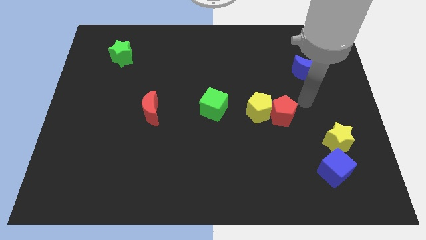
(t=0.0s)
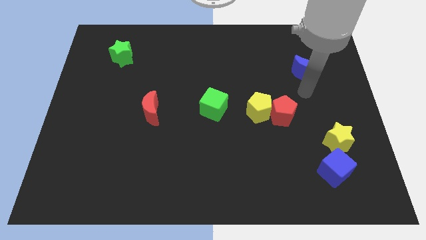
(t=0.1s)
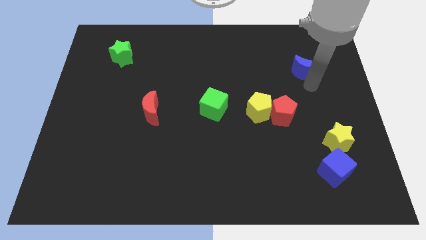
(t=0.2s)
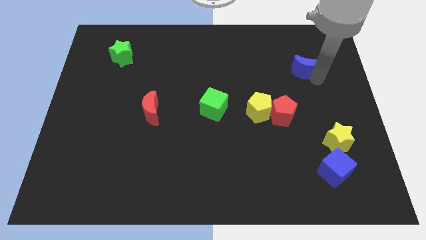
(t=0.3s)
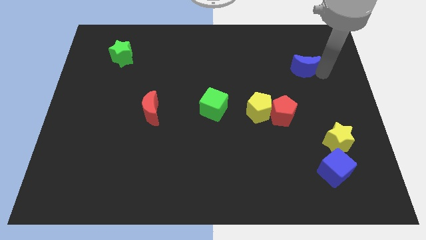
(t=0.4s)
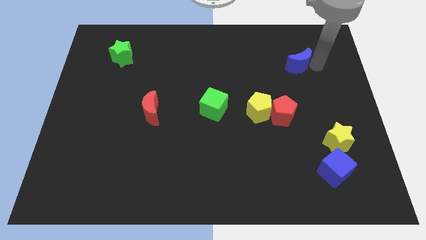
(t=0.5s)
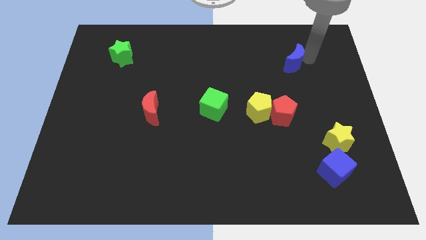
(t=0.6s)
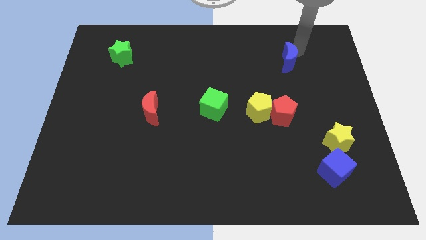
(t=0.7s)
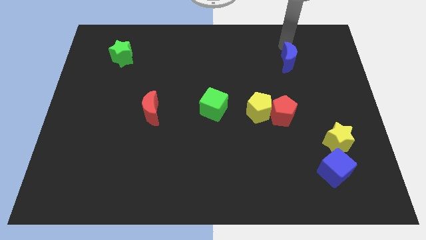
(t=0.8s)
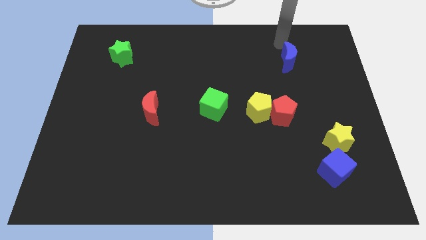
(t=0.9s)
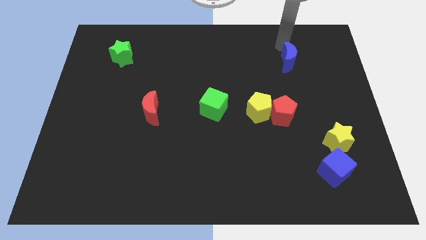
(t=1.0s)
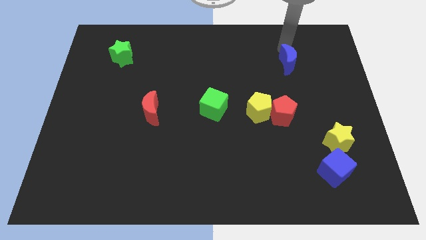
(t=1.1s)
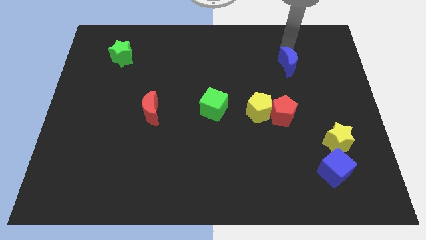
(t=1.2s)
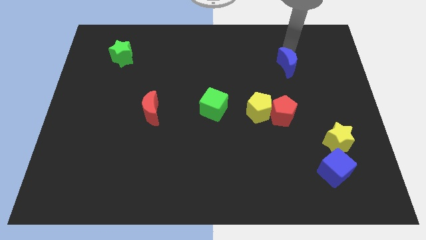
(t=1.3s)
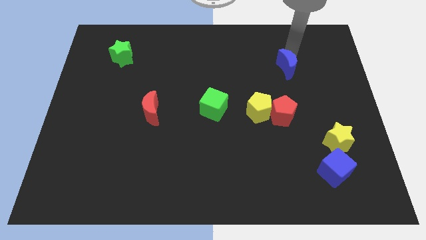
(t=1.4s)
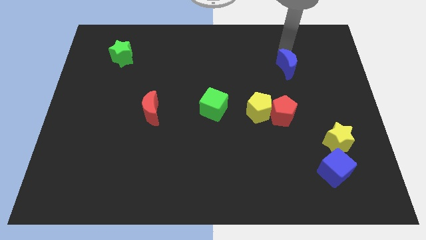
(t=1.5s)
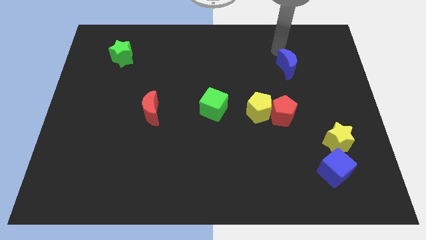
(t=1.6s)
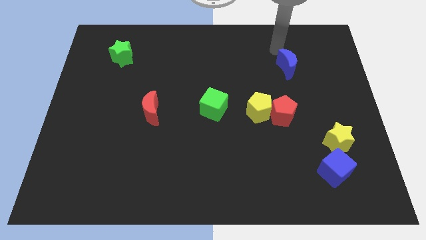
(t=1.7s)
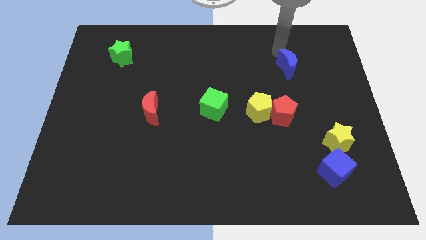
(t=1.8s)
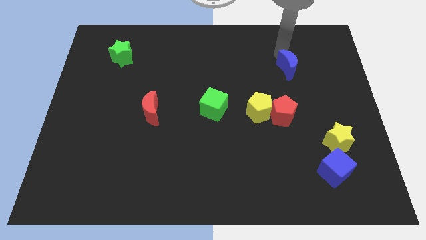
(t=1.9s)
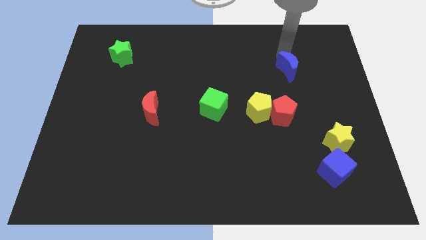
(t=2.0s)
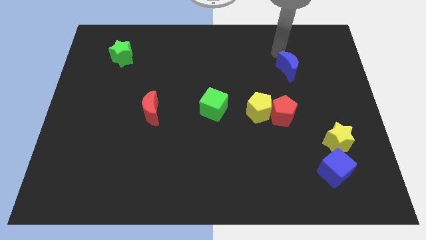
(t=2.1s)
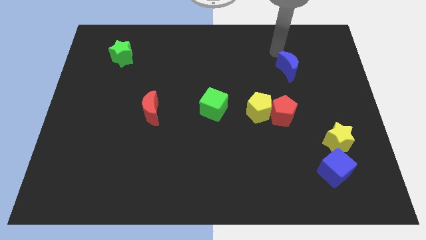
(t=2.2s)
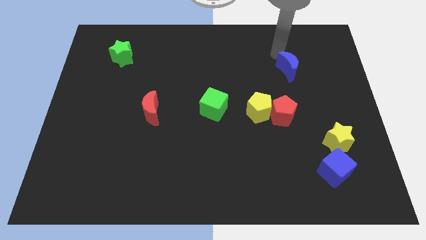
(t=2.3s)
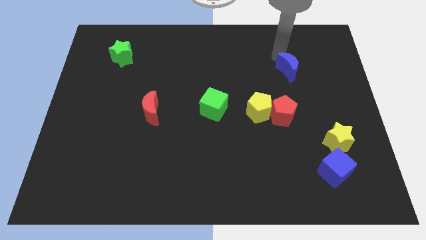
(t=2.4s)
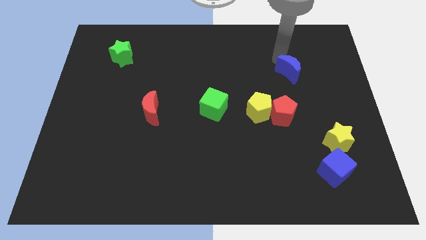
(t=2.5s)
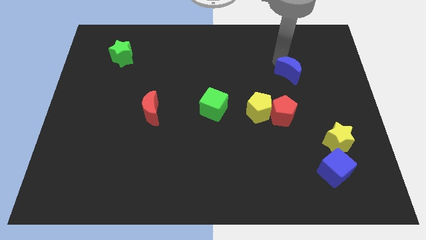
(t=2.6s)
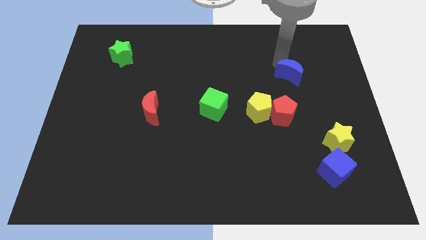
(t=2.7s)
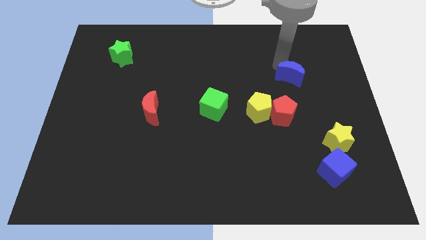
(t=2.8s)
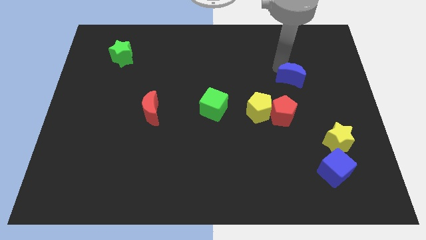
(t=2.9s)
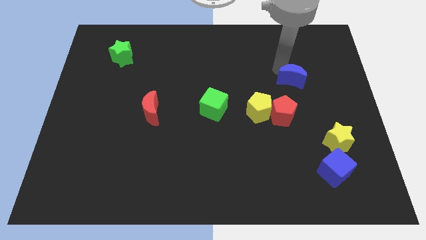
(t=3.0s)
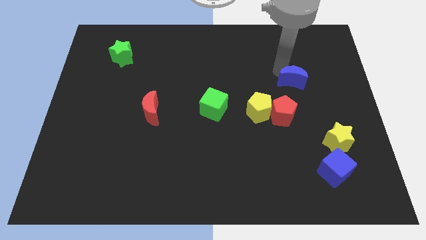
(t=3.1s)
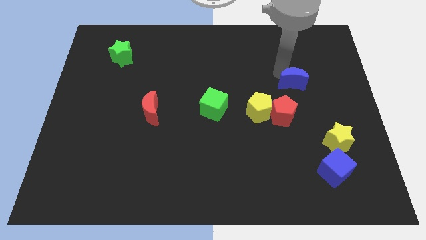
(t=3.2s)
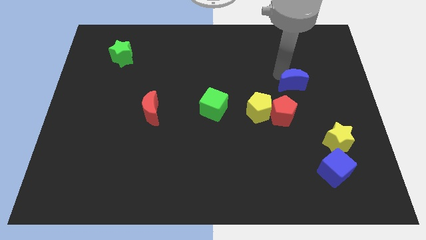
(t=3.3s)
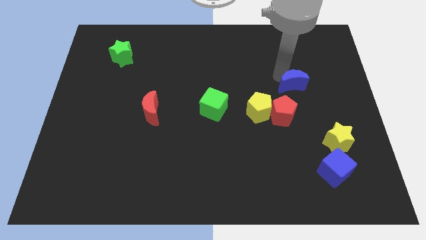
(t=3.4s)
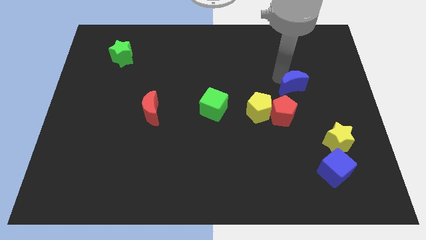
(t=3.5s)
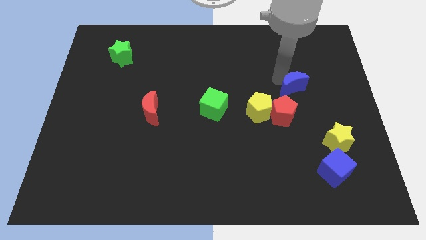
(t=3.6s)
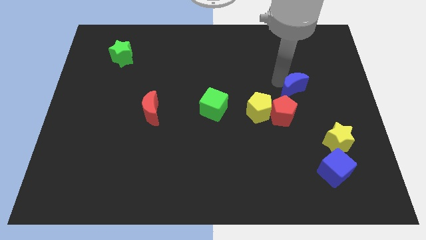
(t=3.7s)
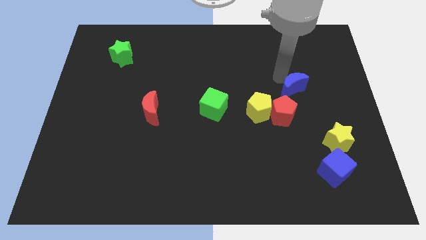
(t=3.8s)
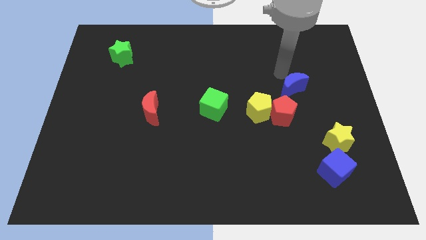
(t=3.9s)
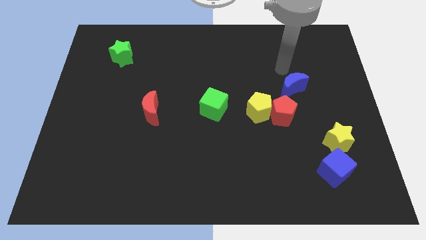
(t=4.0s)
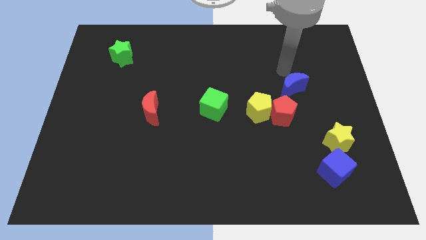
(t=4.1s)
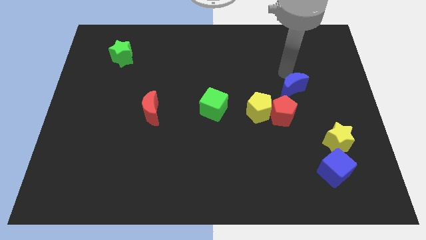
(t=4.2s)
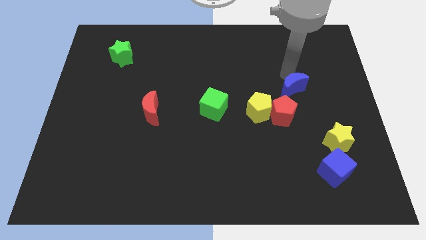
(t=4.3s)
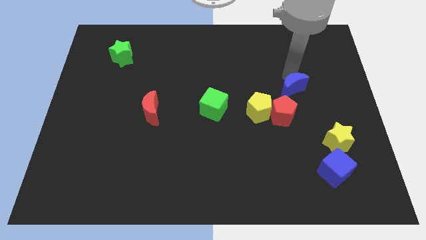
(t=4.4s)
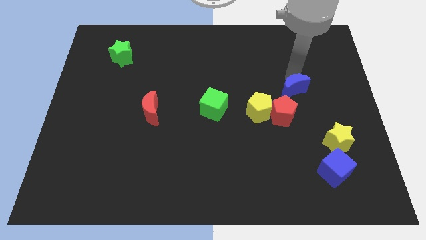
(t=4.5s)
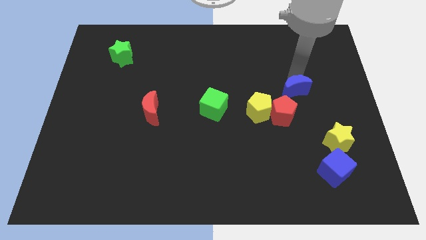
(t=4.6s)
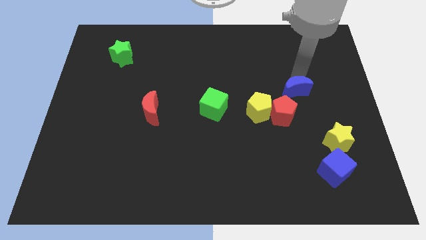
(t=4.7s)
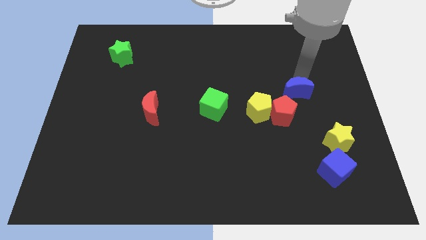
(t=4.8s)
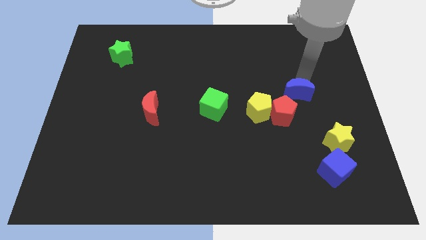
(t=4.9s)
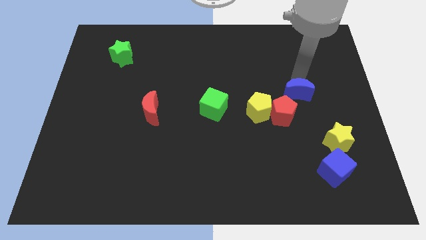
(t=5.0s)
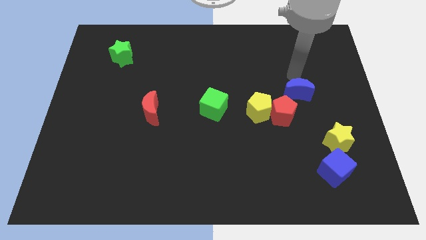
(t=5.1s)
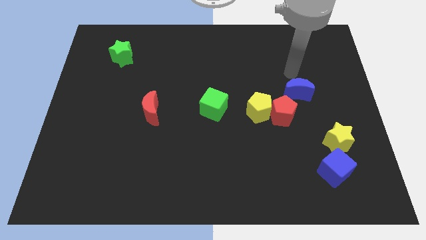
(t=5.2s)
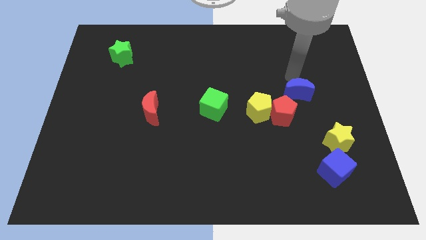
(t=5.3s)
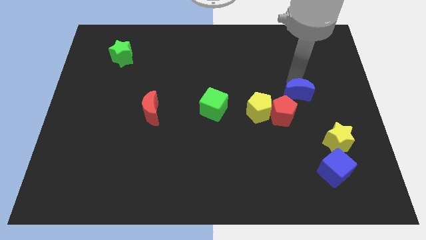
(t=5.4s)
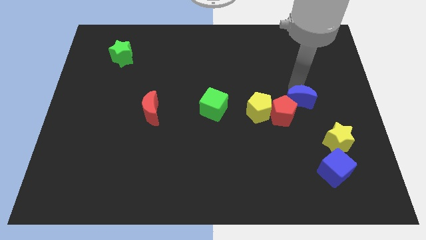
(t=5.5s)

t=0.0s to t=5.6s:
move the blue moon just right of the yellow pentagon

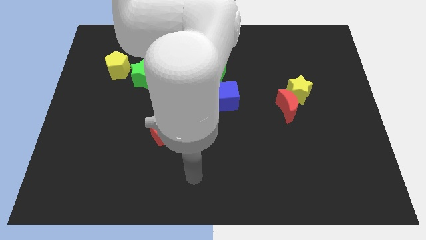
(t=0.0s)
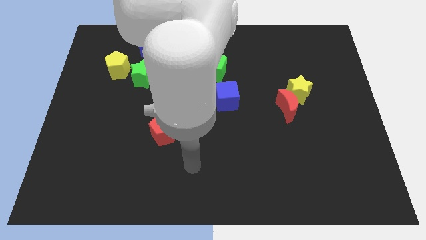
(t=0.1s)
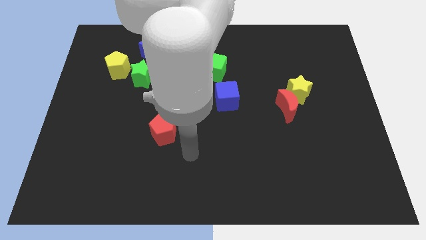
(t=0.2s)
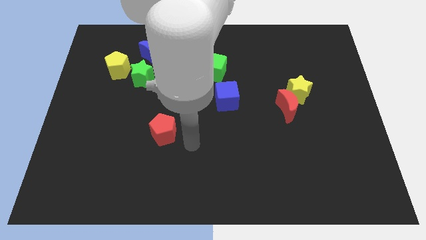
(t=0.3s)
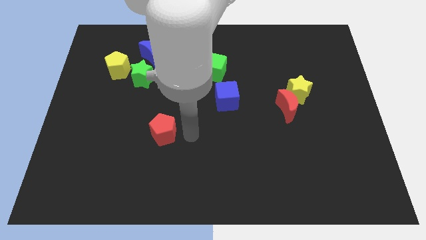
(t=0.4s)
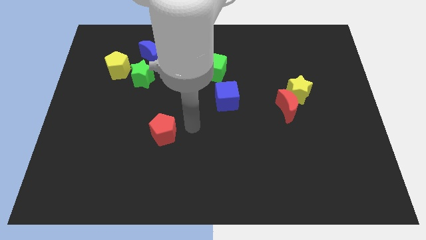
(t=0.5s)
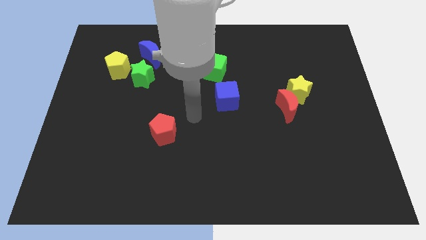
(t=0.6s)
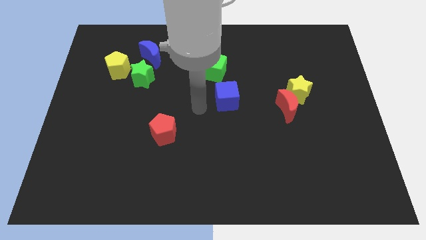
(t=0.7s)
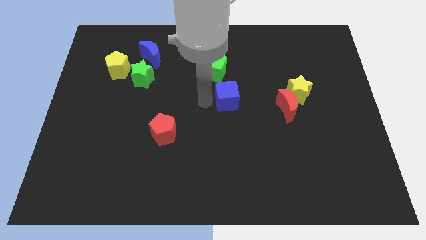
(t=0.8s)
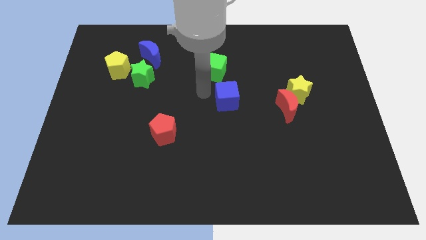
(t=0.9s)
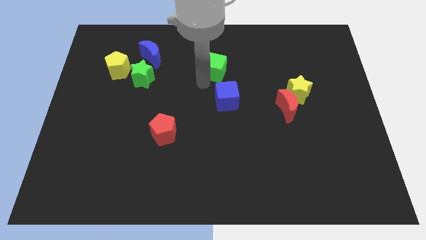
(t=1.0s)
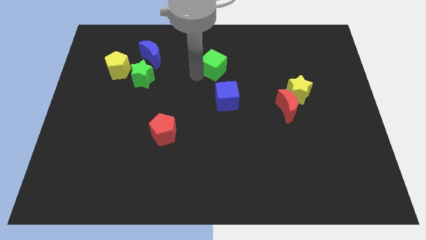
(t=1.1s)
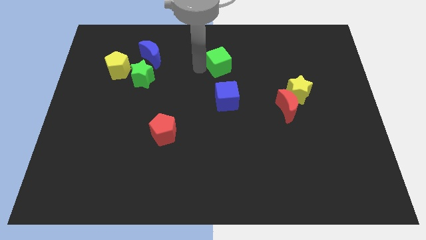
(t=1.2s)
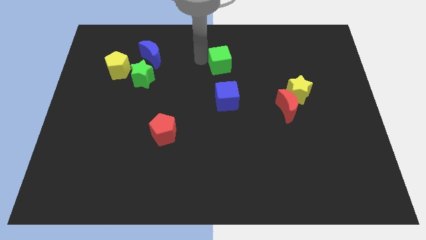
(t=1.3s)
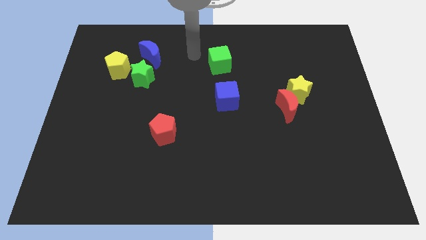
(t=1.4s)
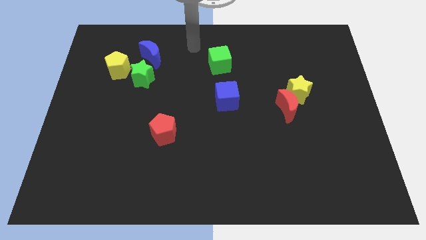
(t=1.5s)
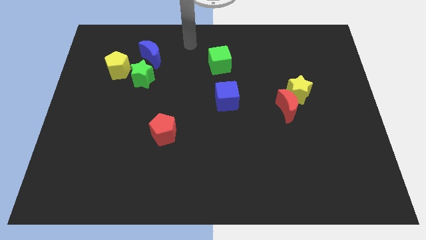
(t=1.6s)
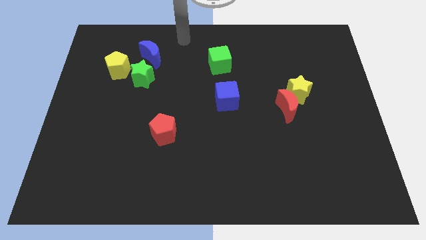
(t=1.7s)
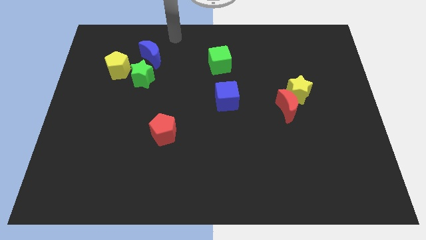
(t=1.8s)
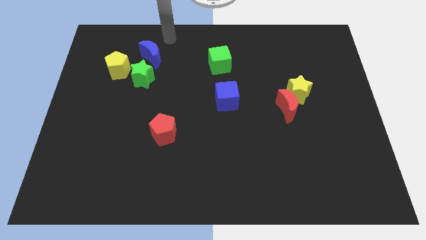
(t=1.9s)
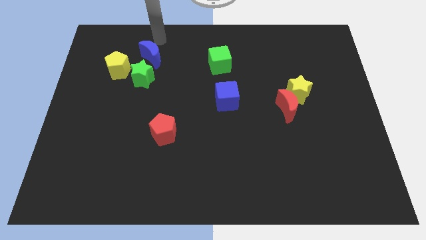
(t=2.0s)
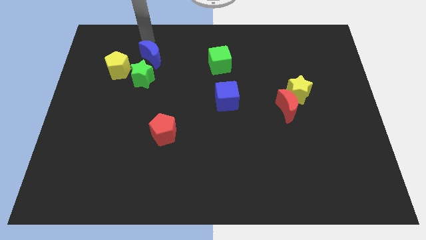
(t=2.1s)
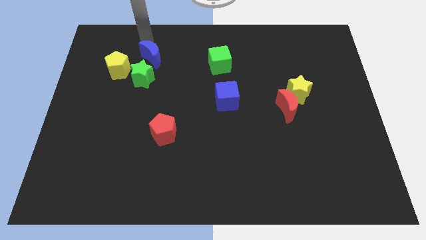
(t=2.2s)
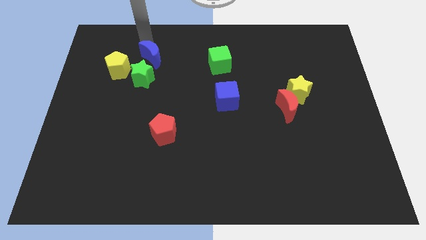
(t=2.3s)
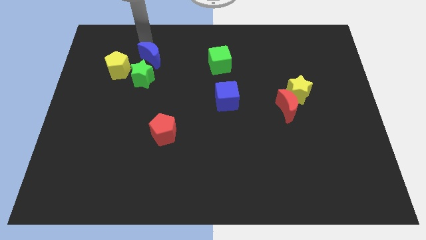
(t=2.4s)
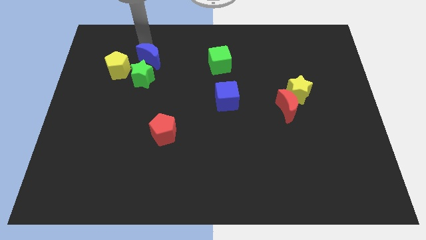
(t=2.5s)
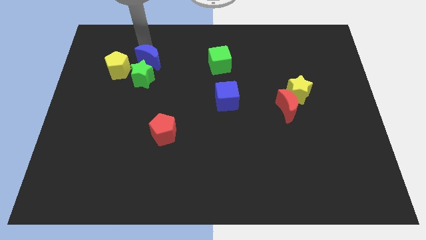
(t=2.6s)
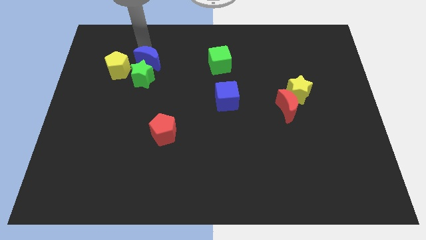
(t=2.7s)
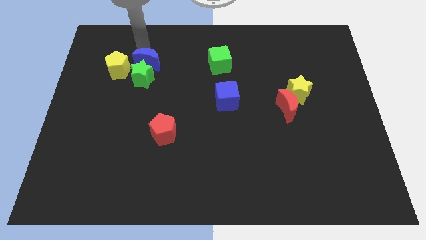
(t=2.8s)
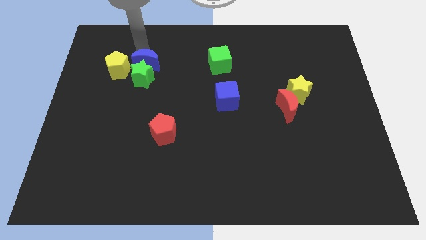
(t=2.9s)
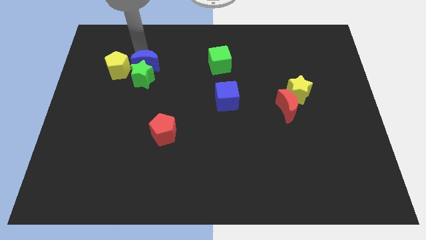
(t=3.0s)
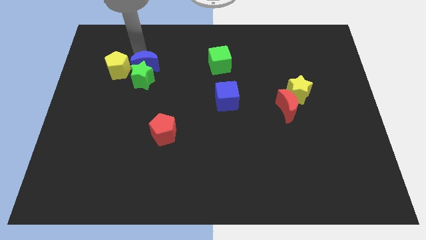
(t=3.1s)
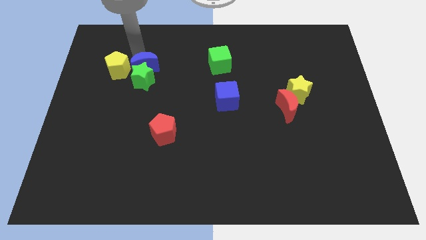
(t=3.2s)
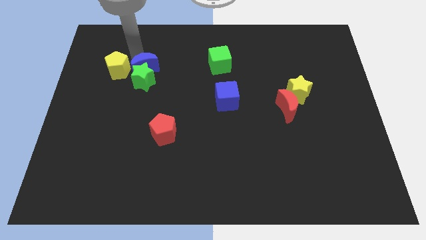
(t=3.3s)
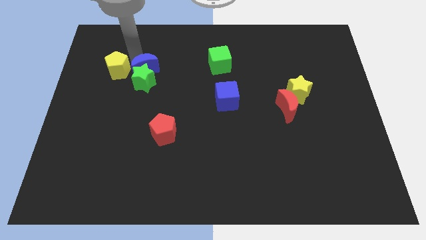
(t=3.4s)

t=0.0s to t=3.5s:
push the blue moon diagonally down and to the right of the yellow pentagon
